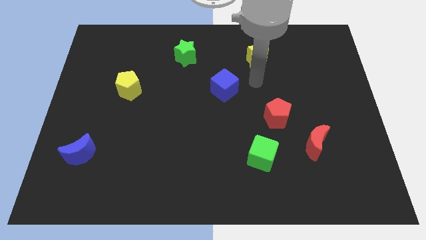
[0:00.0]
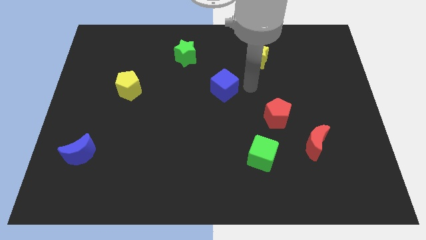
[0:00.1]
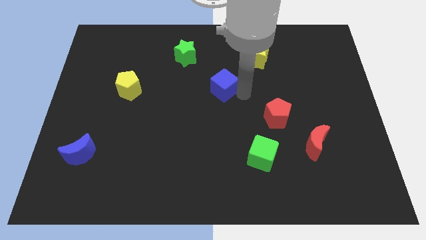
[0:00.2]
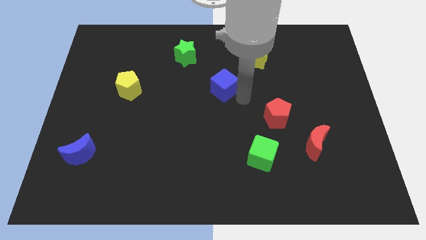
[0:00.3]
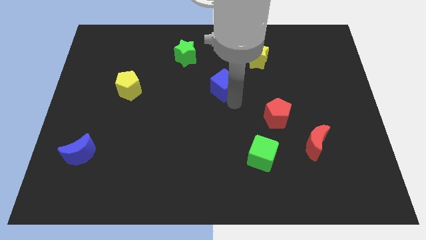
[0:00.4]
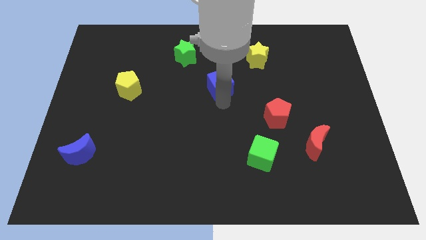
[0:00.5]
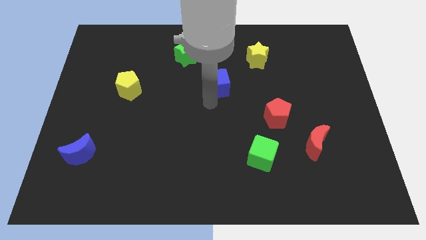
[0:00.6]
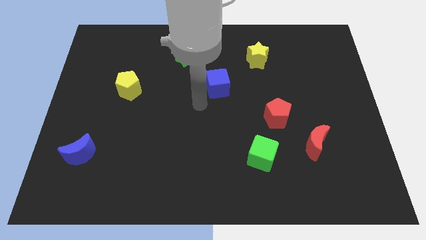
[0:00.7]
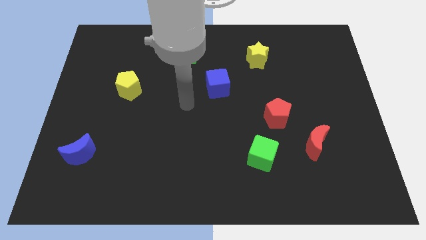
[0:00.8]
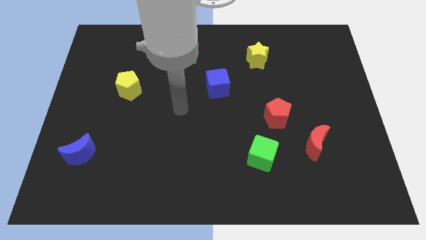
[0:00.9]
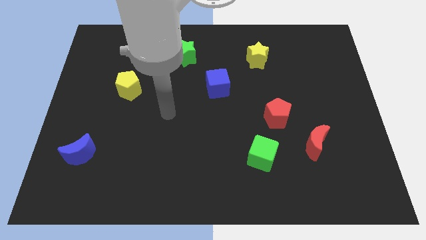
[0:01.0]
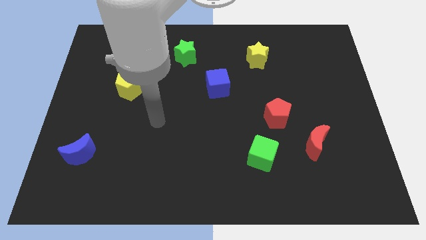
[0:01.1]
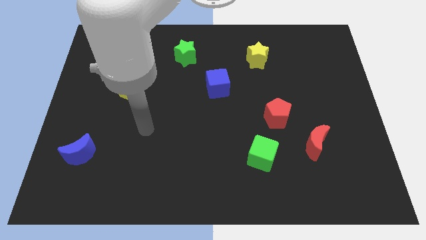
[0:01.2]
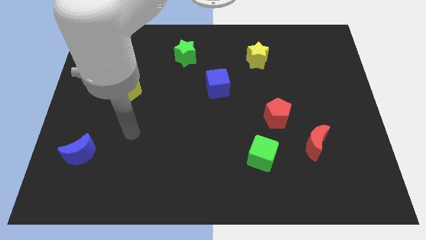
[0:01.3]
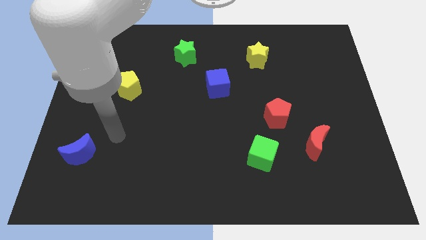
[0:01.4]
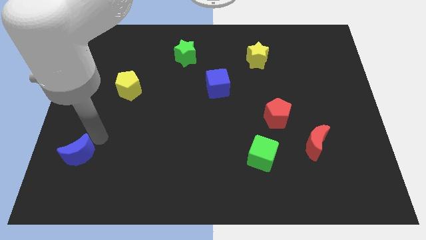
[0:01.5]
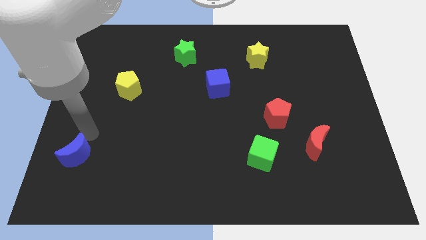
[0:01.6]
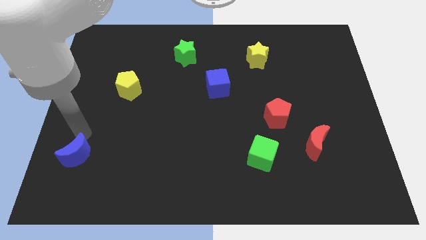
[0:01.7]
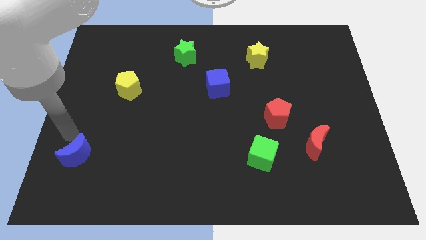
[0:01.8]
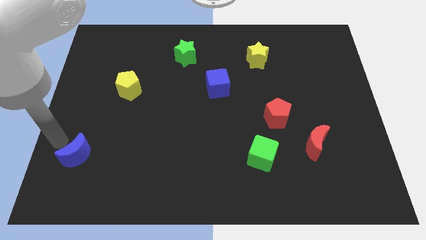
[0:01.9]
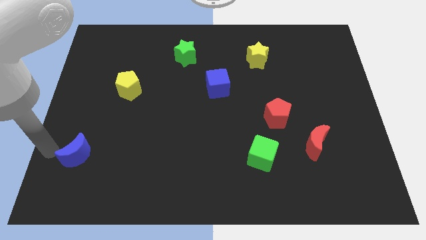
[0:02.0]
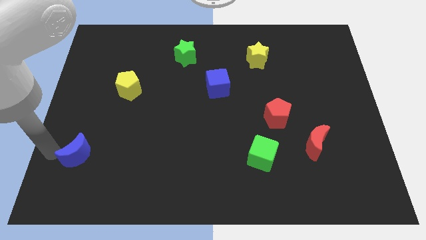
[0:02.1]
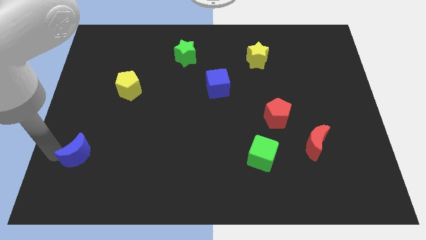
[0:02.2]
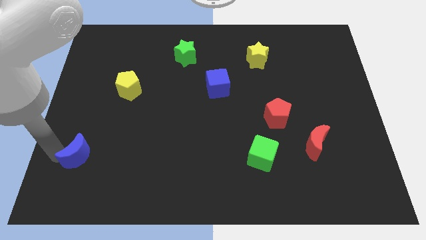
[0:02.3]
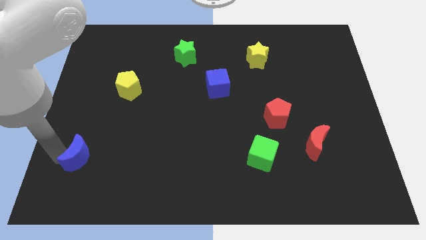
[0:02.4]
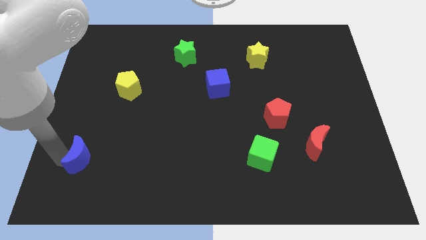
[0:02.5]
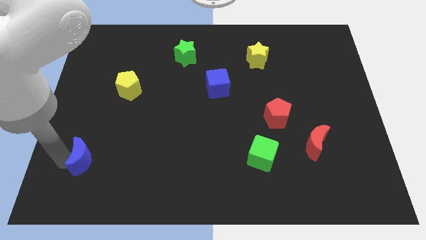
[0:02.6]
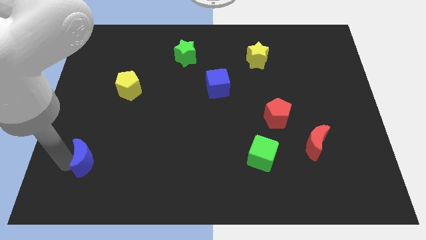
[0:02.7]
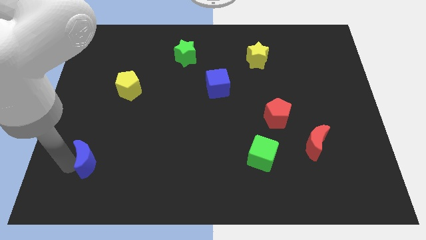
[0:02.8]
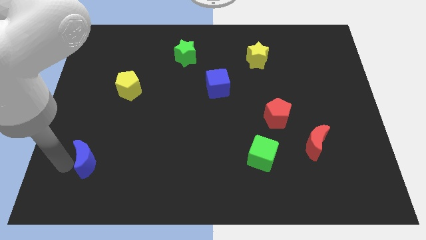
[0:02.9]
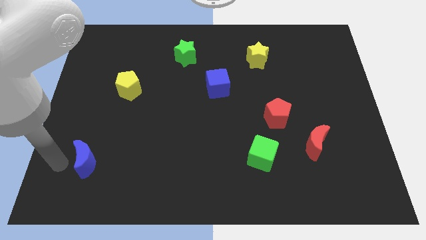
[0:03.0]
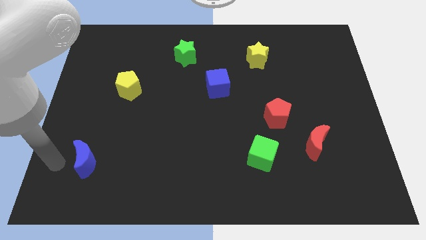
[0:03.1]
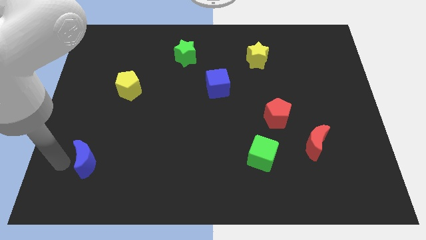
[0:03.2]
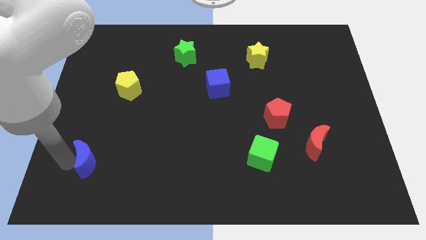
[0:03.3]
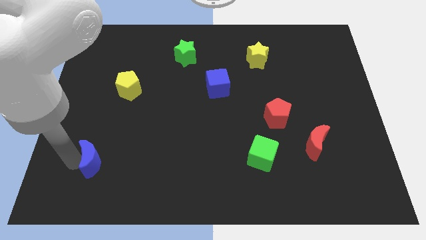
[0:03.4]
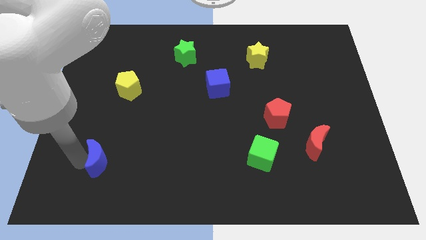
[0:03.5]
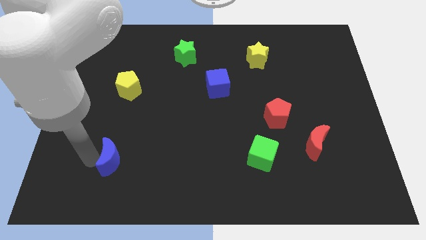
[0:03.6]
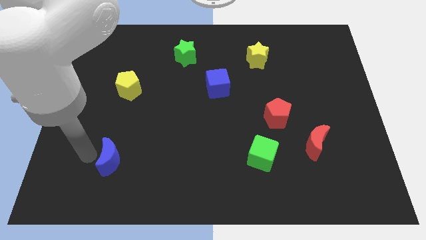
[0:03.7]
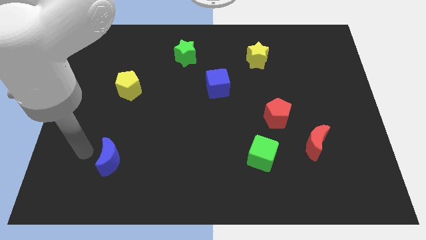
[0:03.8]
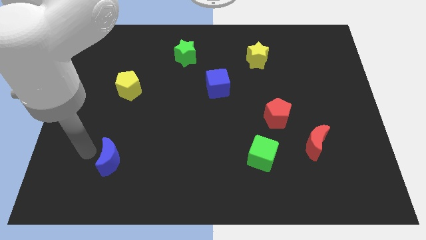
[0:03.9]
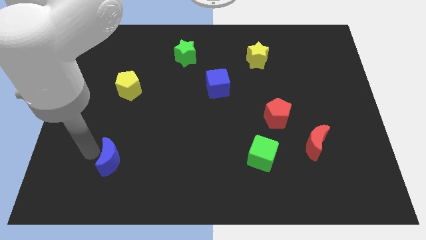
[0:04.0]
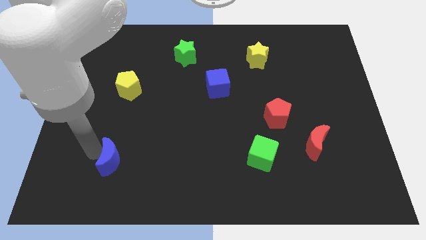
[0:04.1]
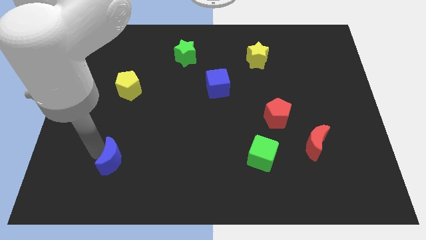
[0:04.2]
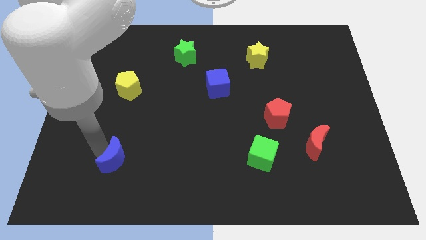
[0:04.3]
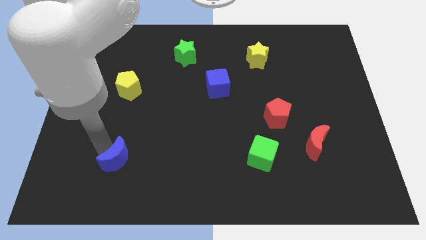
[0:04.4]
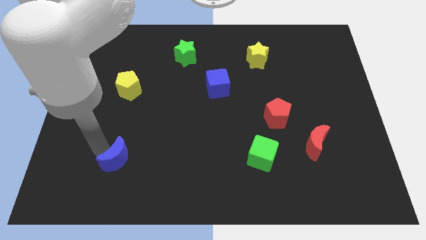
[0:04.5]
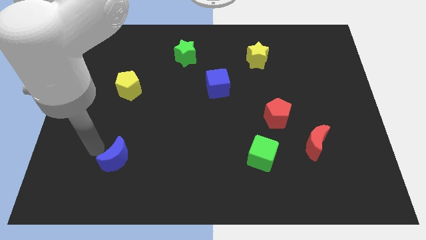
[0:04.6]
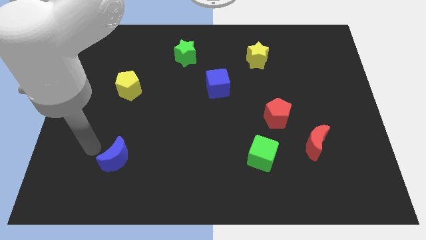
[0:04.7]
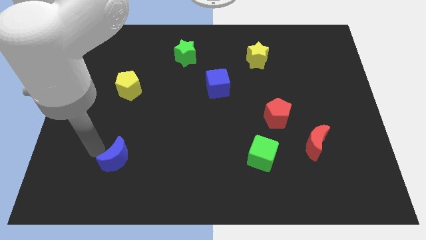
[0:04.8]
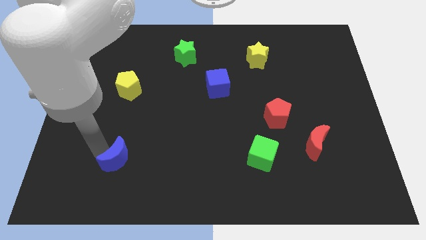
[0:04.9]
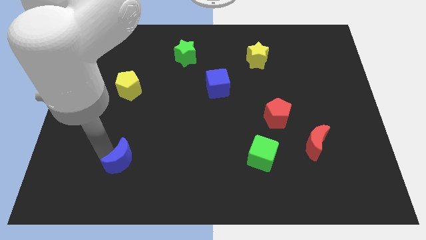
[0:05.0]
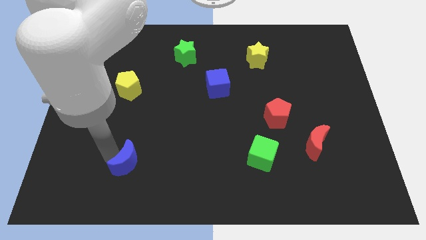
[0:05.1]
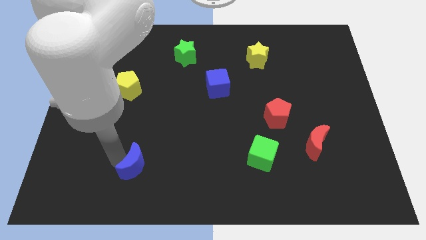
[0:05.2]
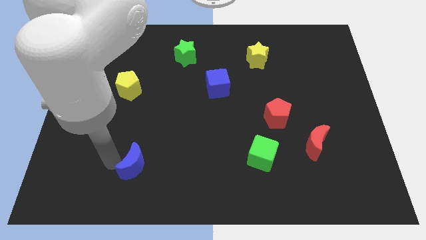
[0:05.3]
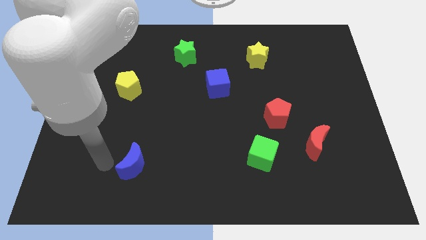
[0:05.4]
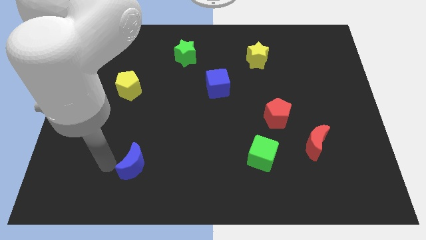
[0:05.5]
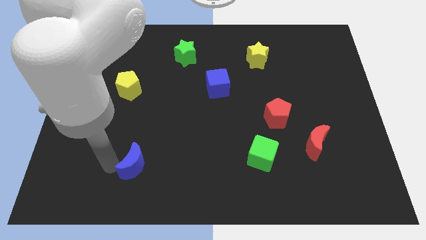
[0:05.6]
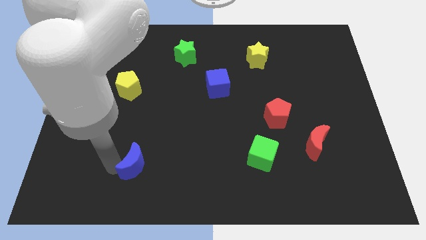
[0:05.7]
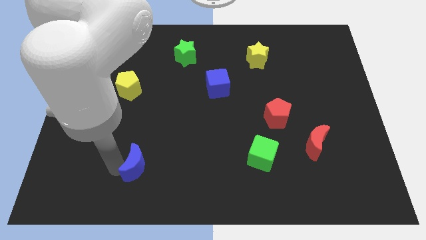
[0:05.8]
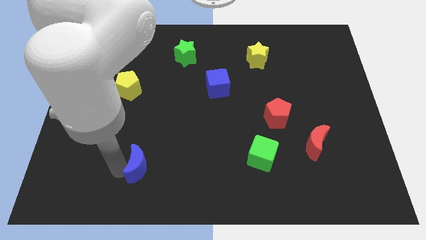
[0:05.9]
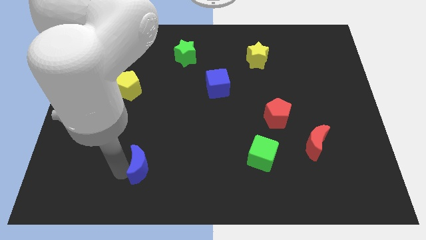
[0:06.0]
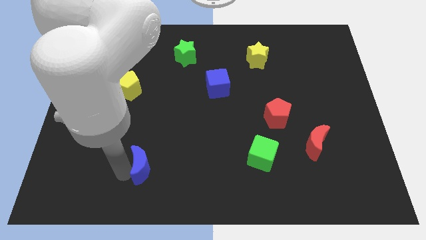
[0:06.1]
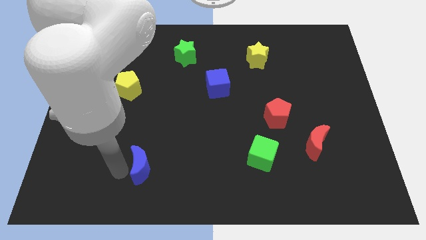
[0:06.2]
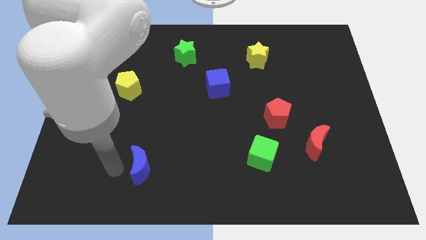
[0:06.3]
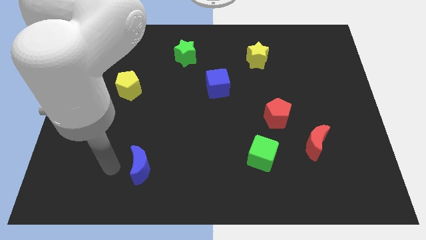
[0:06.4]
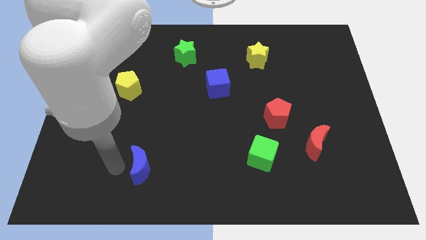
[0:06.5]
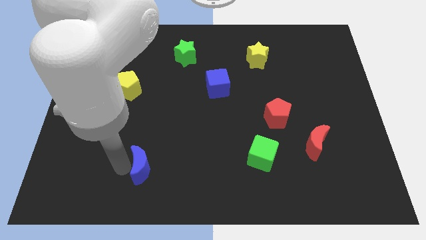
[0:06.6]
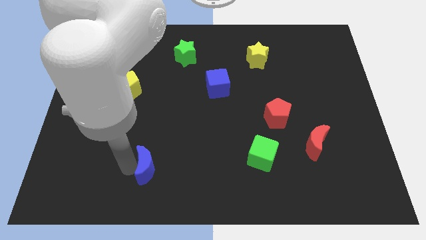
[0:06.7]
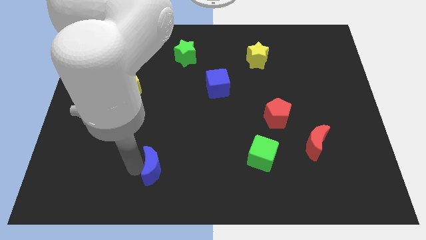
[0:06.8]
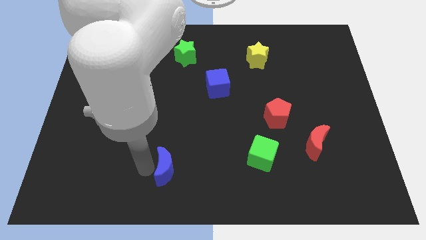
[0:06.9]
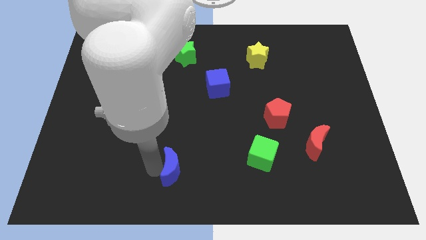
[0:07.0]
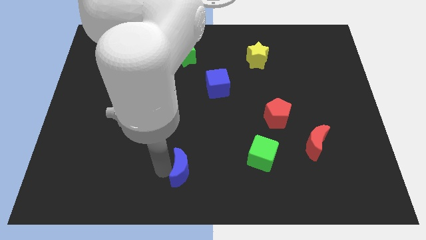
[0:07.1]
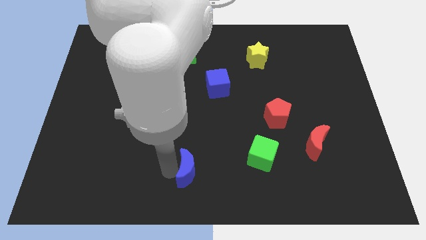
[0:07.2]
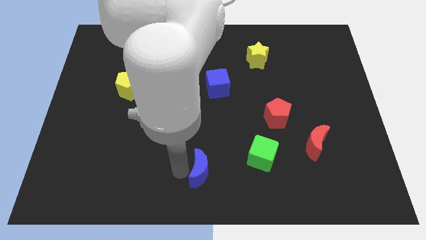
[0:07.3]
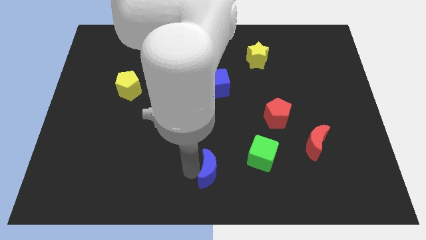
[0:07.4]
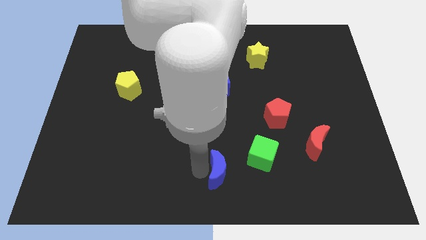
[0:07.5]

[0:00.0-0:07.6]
put the blue moon to the bottom left side of the green cube
